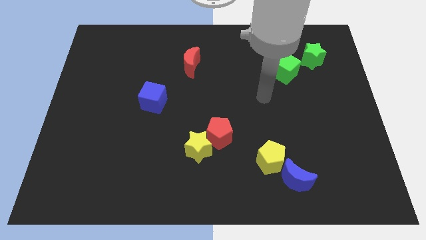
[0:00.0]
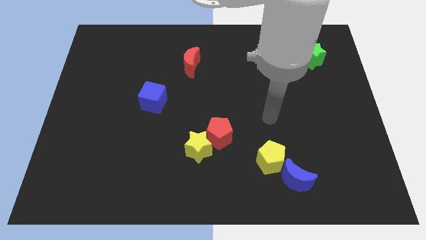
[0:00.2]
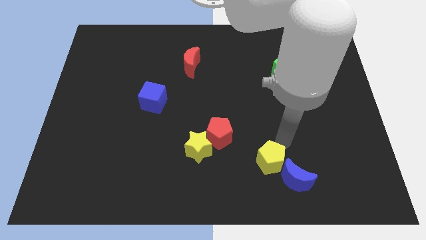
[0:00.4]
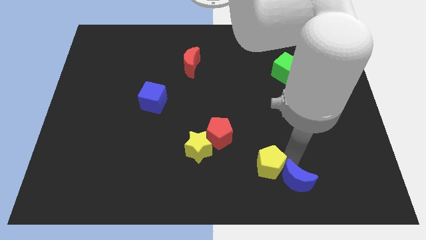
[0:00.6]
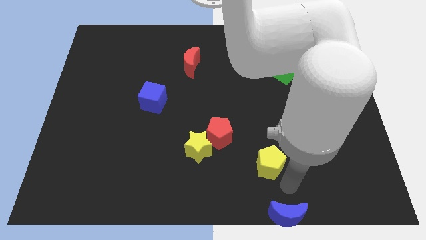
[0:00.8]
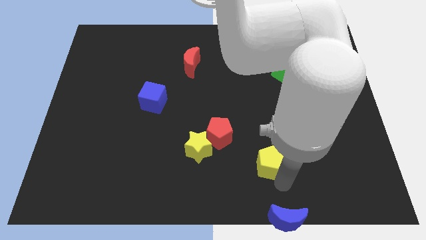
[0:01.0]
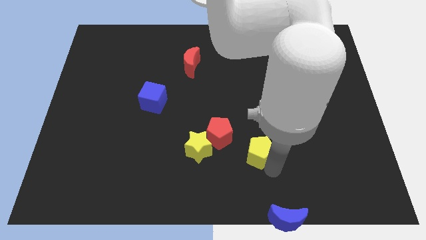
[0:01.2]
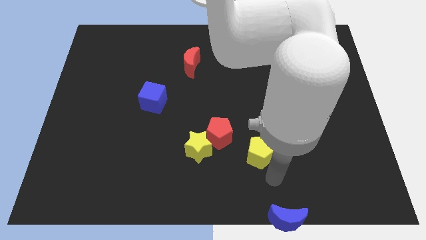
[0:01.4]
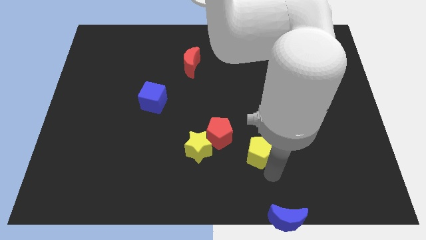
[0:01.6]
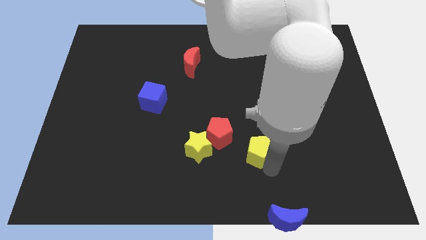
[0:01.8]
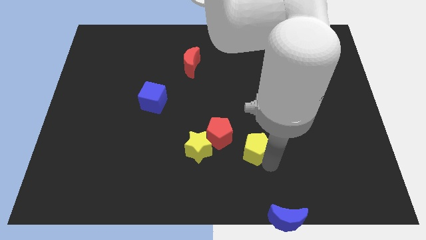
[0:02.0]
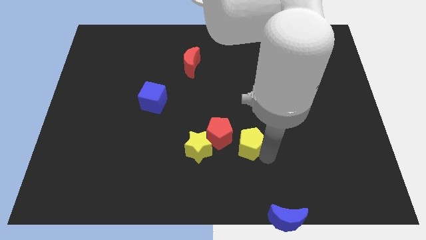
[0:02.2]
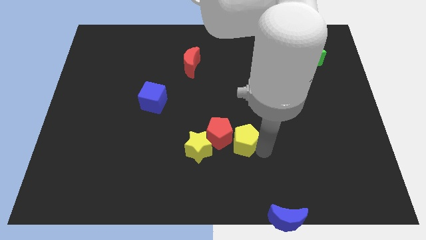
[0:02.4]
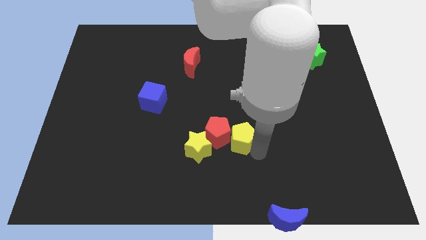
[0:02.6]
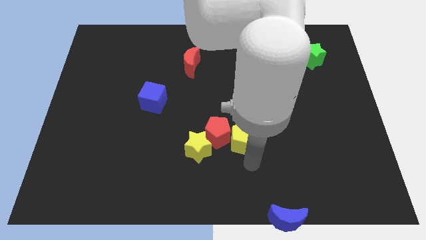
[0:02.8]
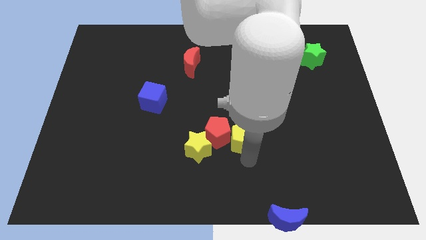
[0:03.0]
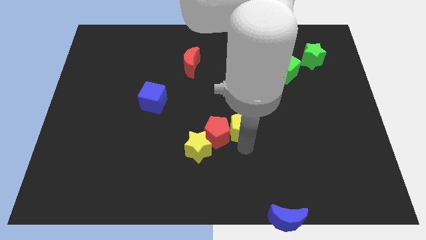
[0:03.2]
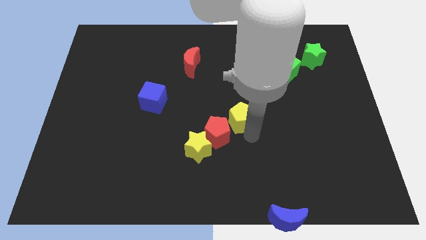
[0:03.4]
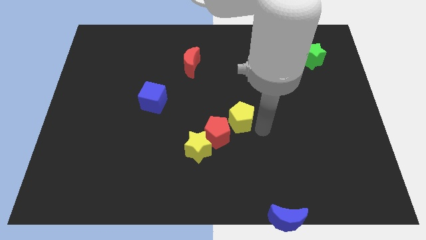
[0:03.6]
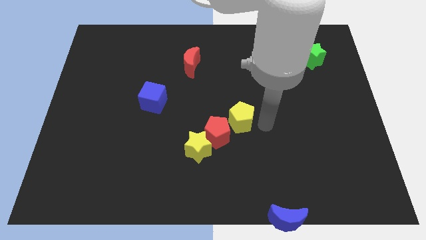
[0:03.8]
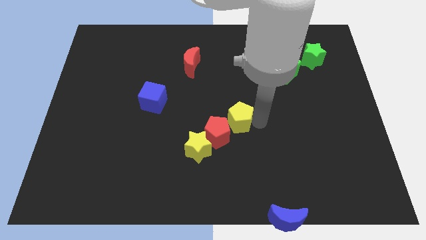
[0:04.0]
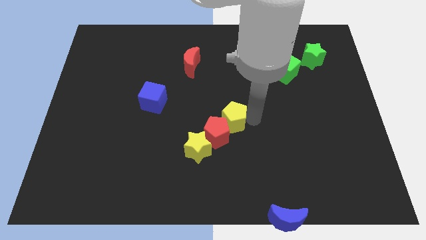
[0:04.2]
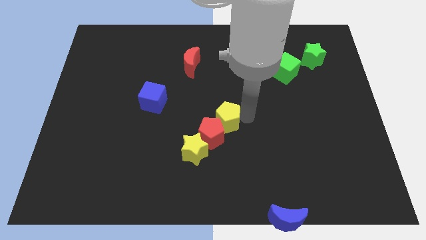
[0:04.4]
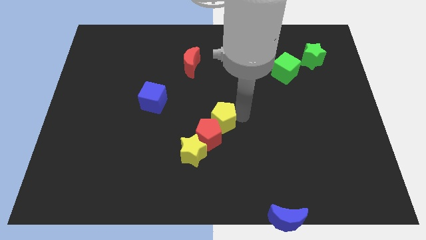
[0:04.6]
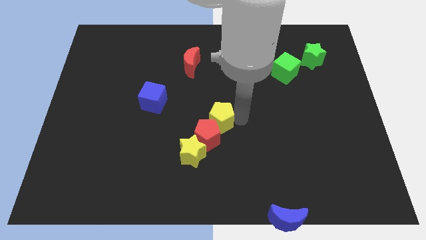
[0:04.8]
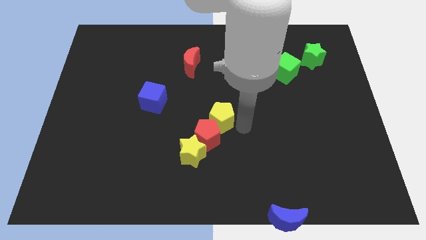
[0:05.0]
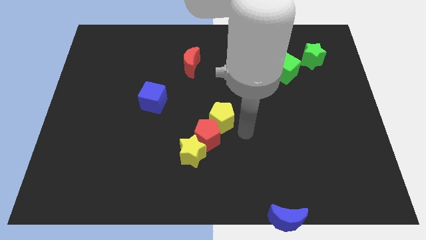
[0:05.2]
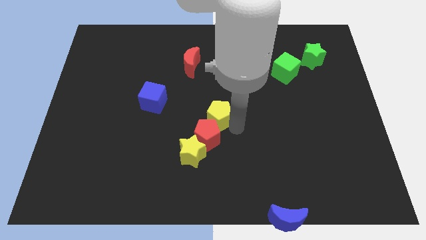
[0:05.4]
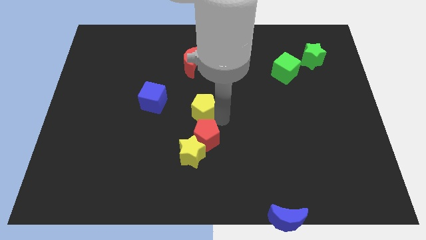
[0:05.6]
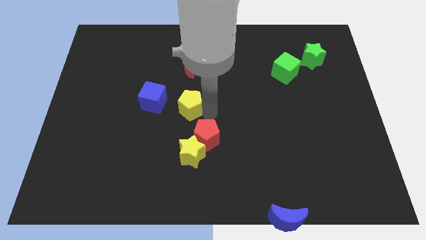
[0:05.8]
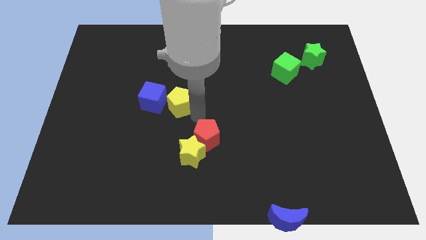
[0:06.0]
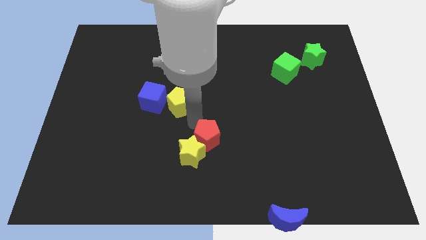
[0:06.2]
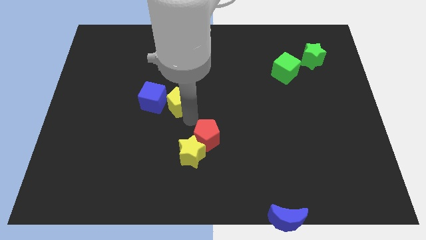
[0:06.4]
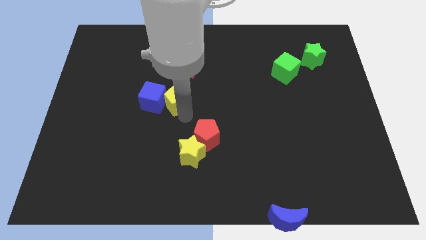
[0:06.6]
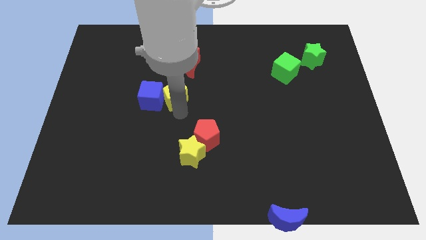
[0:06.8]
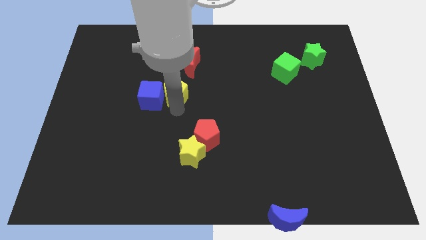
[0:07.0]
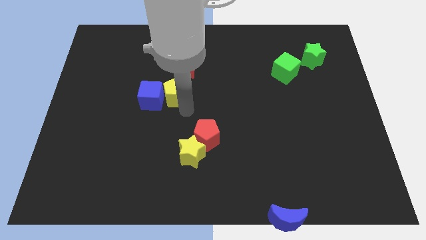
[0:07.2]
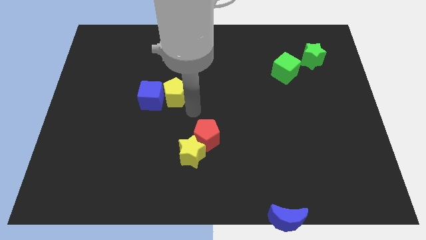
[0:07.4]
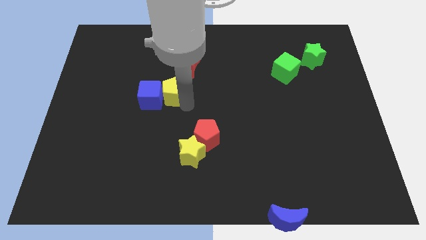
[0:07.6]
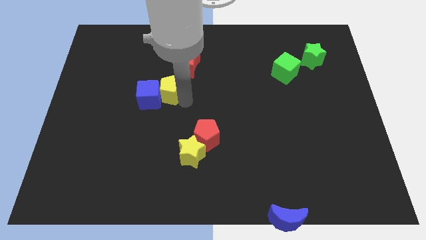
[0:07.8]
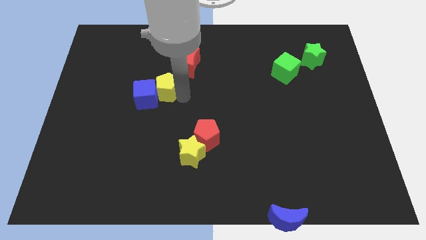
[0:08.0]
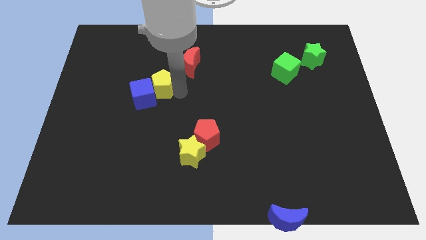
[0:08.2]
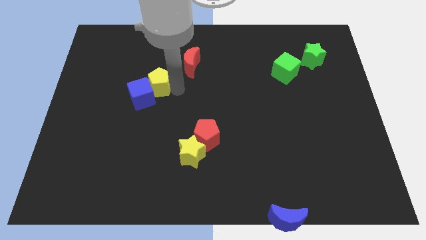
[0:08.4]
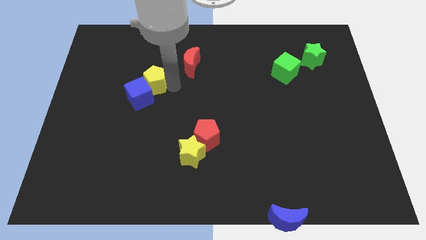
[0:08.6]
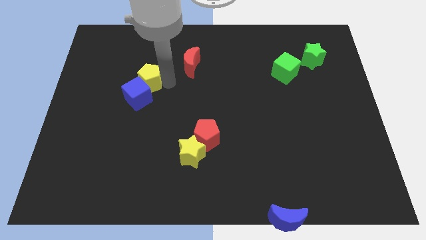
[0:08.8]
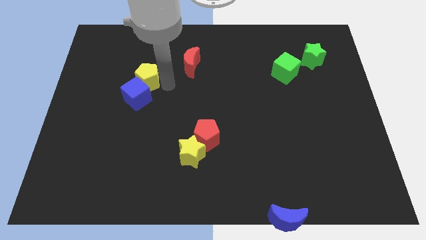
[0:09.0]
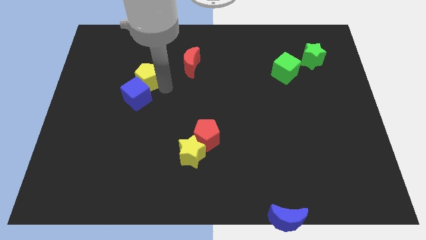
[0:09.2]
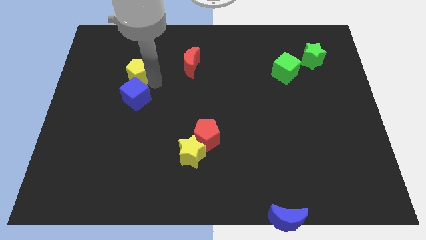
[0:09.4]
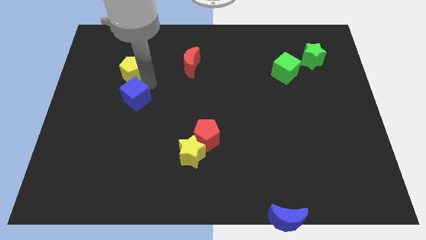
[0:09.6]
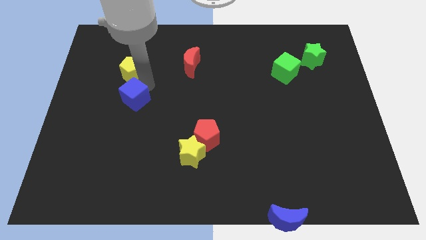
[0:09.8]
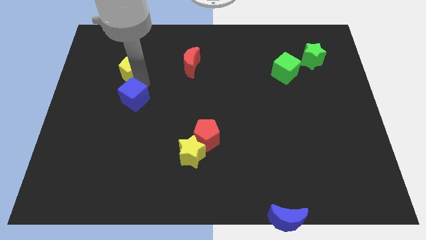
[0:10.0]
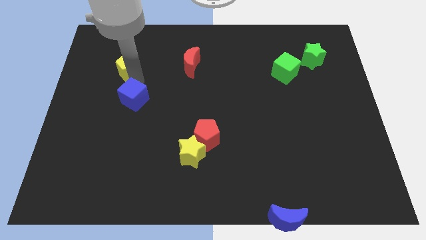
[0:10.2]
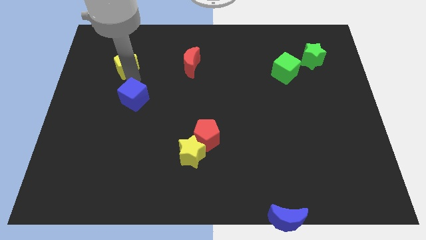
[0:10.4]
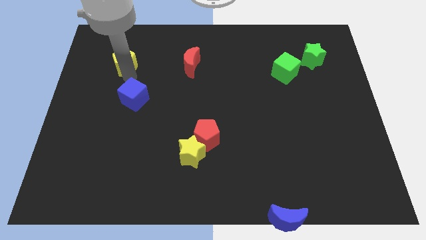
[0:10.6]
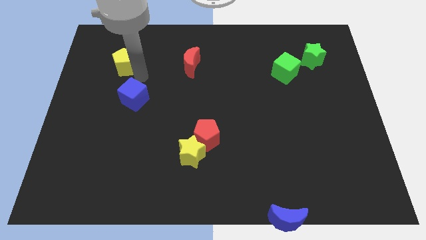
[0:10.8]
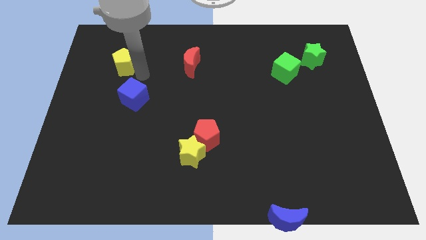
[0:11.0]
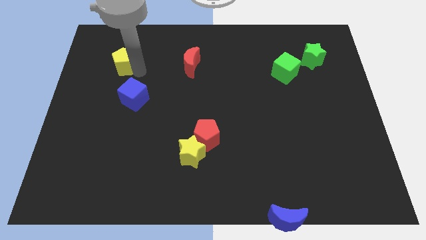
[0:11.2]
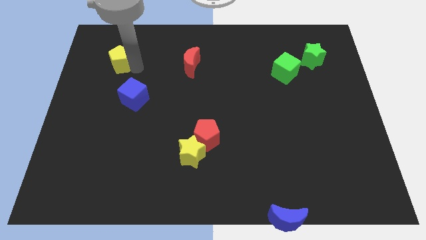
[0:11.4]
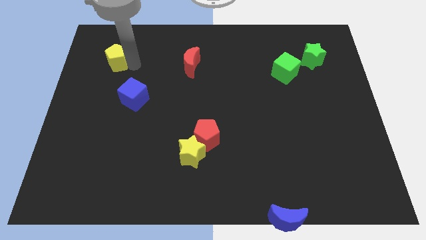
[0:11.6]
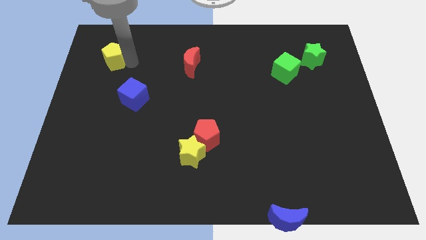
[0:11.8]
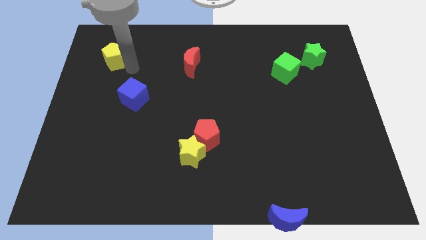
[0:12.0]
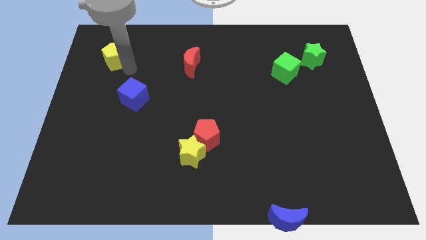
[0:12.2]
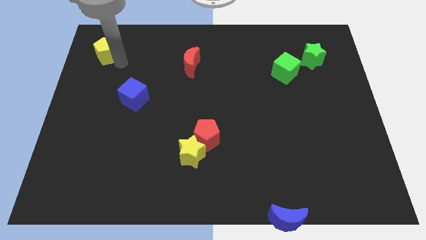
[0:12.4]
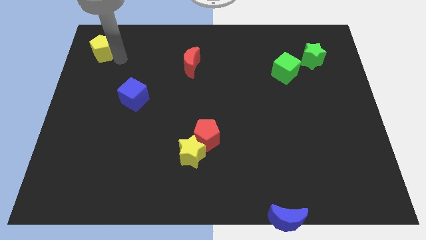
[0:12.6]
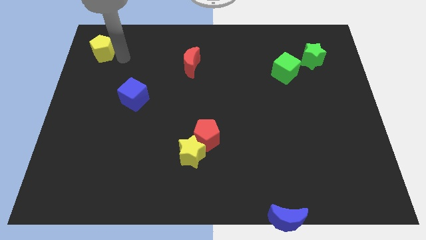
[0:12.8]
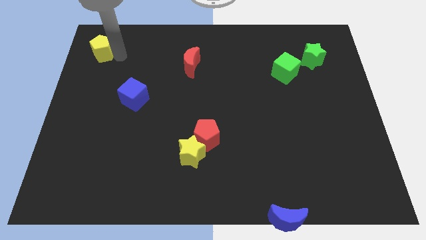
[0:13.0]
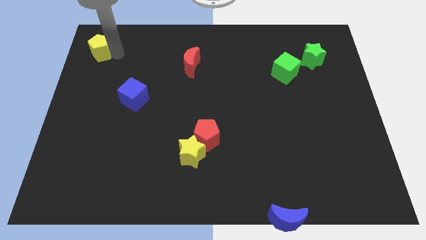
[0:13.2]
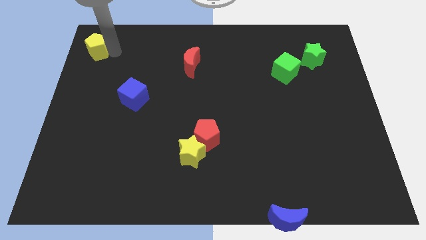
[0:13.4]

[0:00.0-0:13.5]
push the yellow pentagon to the top left
